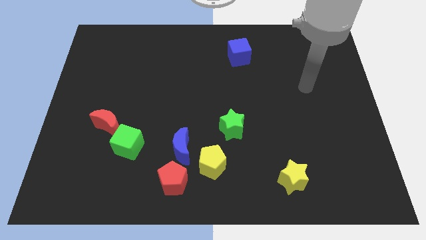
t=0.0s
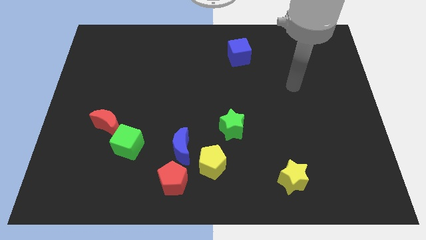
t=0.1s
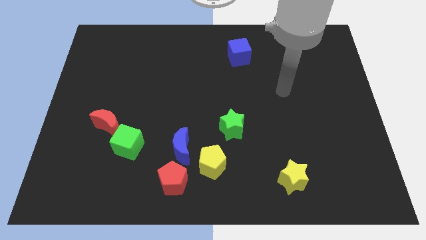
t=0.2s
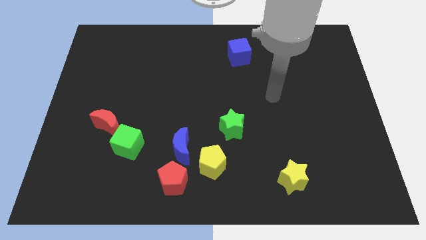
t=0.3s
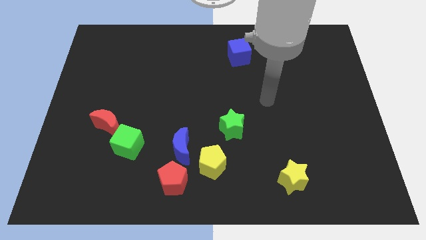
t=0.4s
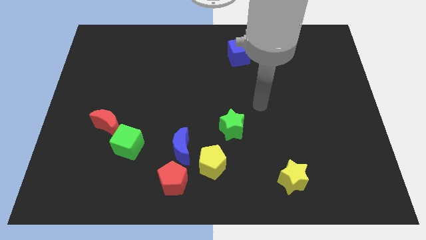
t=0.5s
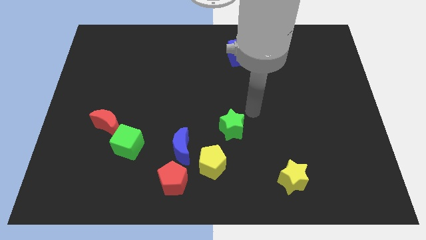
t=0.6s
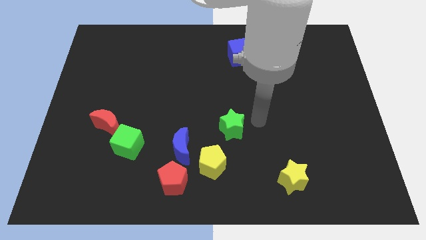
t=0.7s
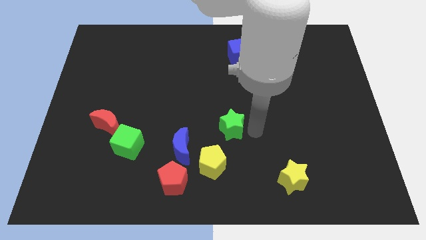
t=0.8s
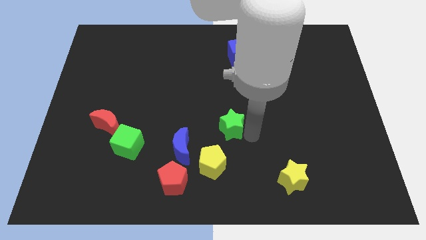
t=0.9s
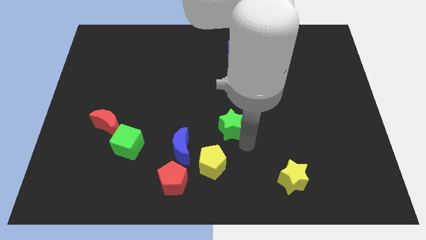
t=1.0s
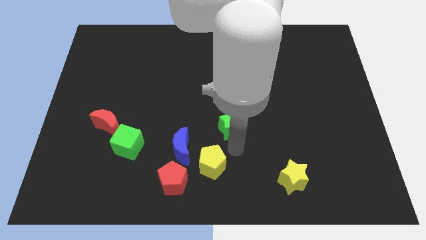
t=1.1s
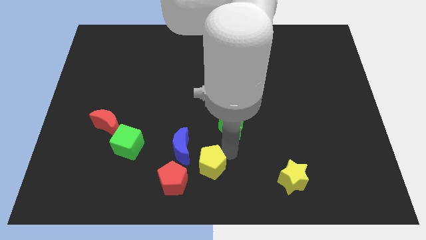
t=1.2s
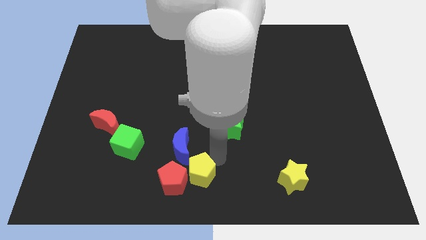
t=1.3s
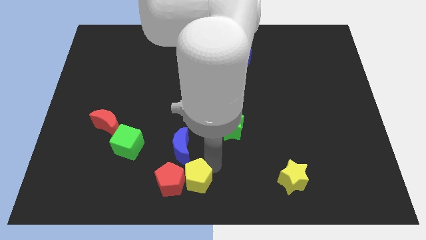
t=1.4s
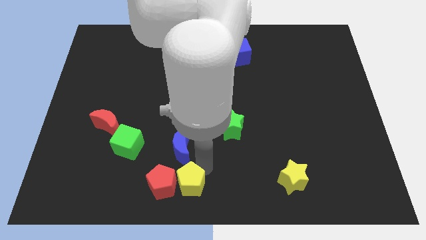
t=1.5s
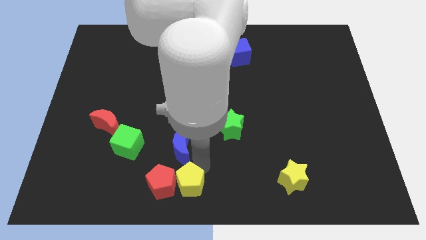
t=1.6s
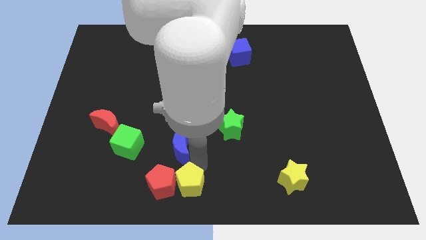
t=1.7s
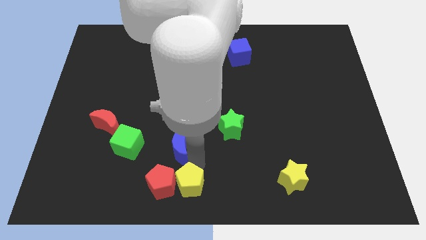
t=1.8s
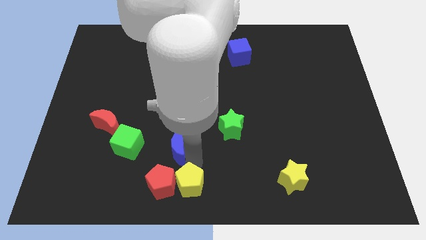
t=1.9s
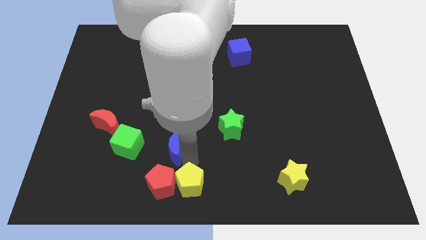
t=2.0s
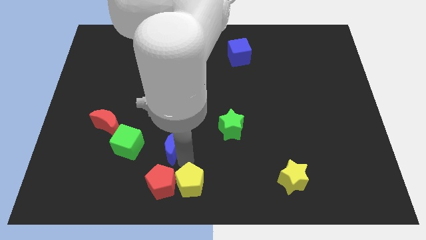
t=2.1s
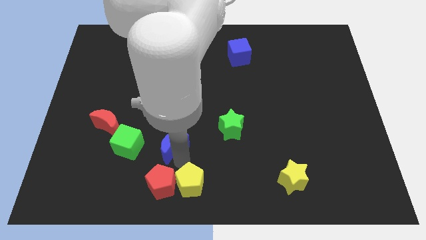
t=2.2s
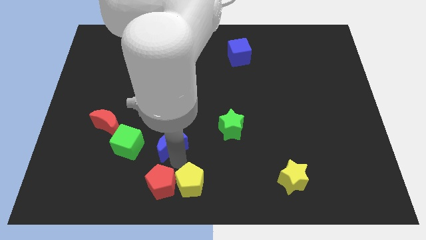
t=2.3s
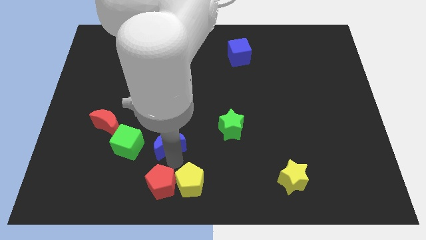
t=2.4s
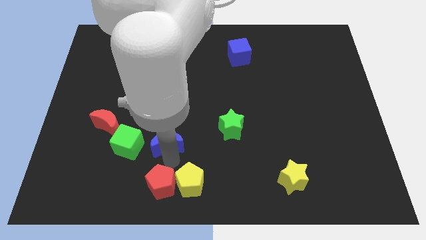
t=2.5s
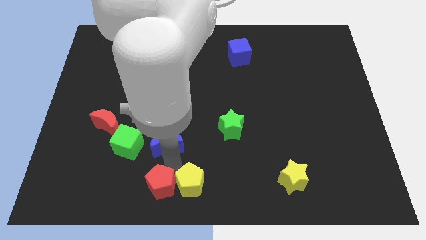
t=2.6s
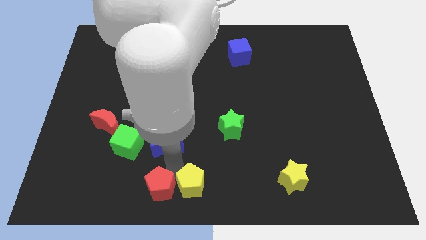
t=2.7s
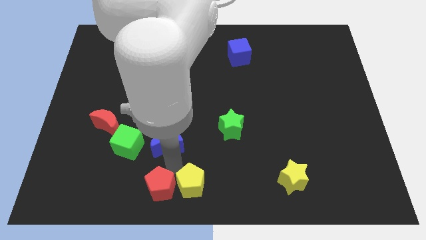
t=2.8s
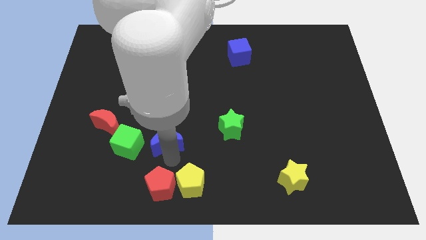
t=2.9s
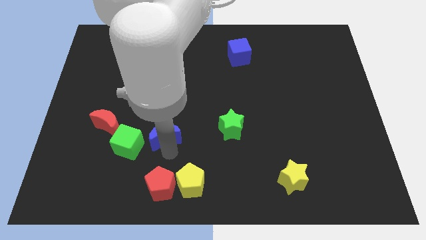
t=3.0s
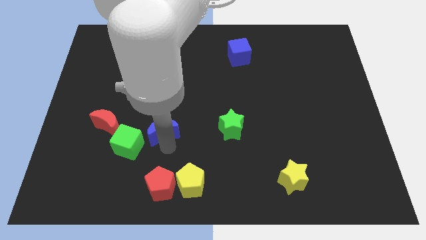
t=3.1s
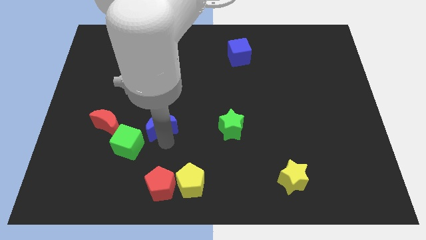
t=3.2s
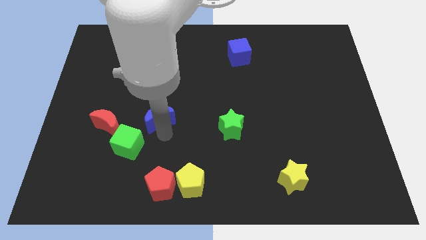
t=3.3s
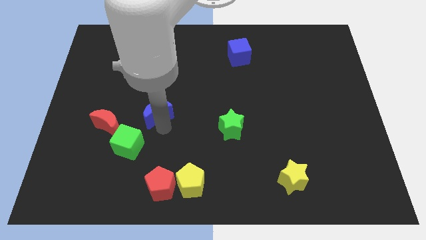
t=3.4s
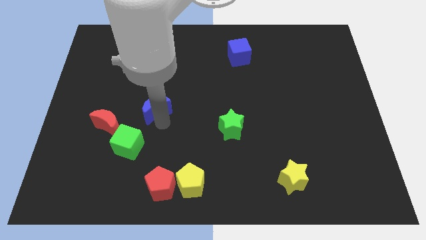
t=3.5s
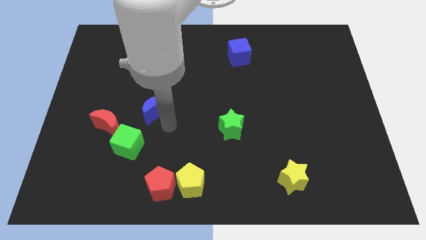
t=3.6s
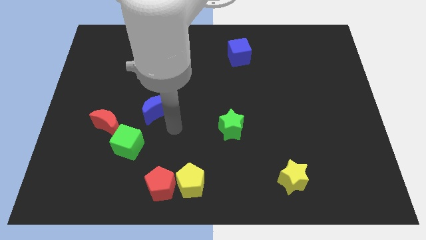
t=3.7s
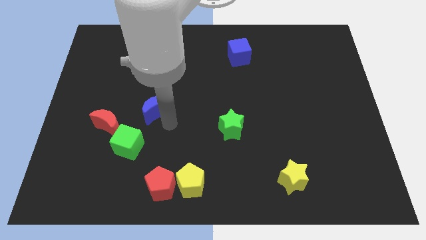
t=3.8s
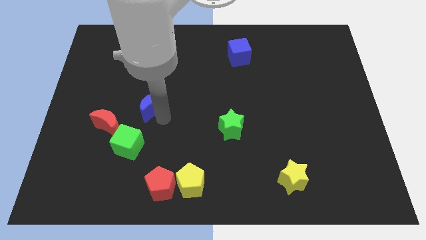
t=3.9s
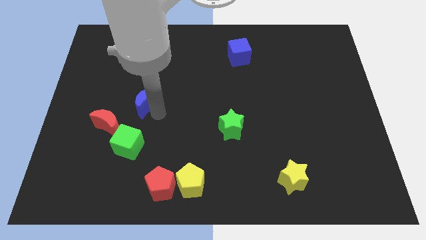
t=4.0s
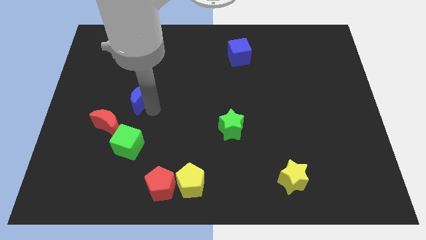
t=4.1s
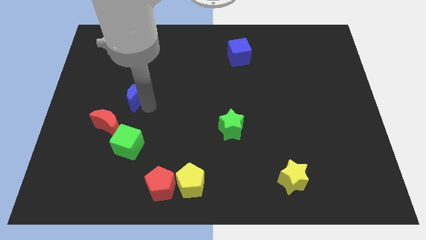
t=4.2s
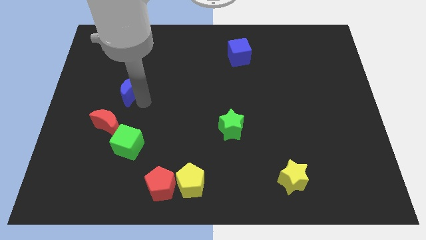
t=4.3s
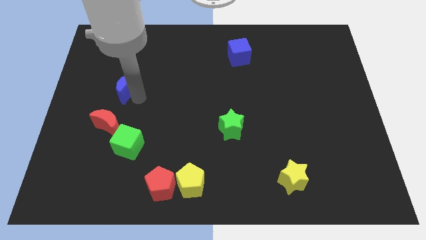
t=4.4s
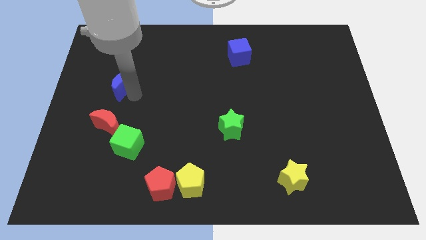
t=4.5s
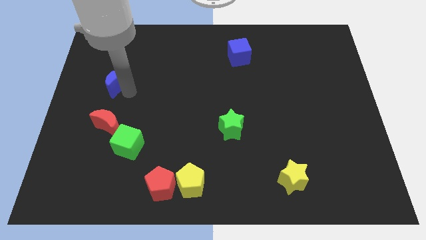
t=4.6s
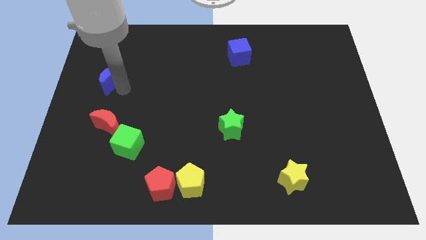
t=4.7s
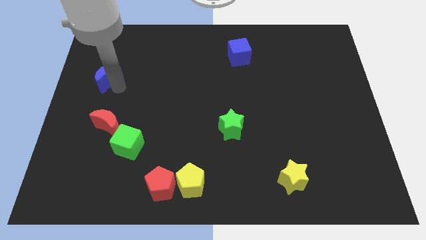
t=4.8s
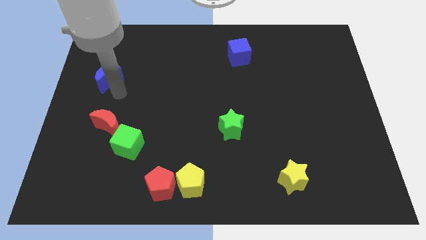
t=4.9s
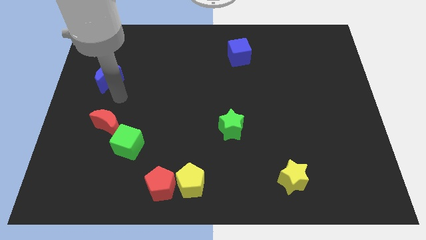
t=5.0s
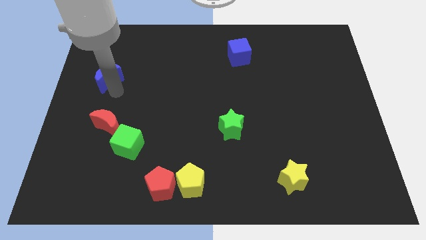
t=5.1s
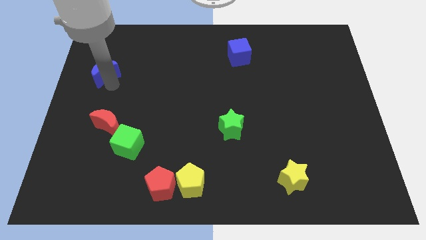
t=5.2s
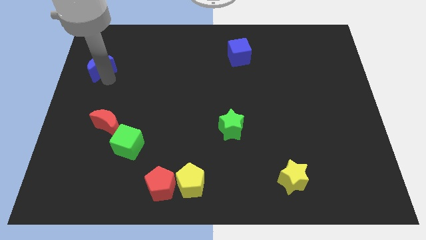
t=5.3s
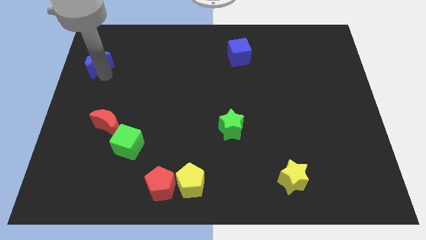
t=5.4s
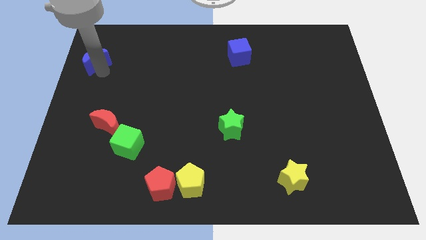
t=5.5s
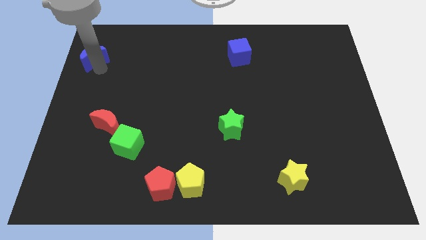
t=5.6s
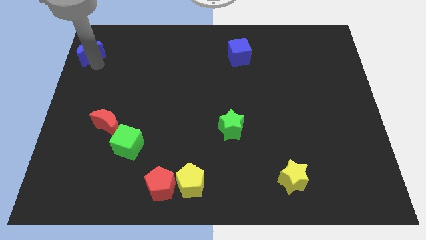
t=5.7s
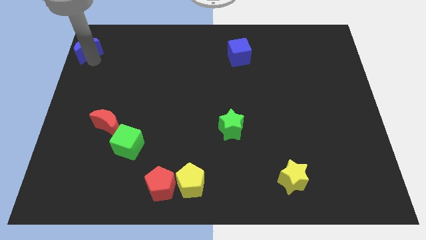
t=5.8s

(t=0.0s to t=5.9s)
put the blue moon to the upper left corner

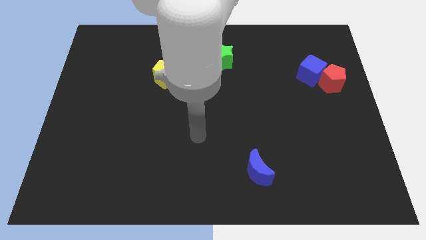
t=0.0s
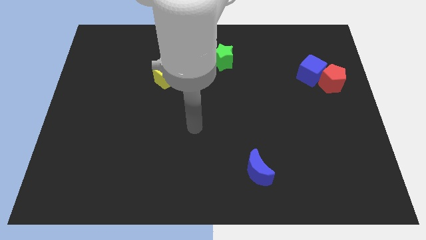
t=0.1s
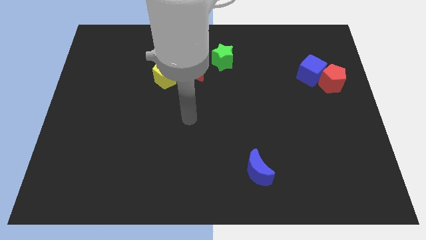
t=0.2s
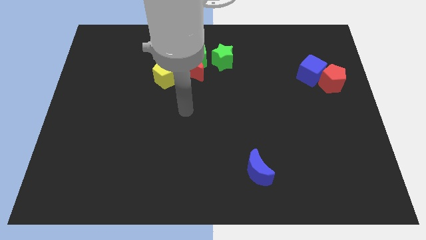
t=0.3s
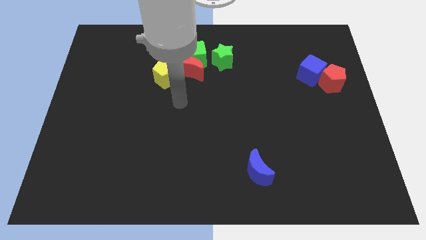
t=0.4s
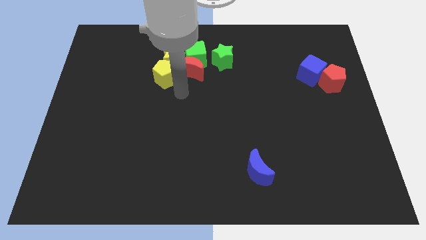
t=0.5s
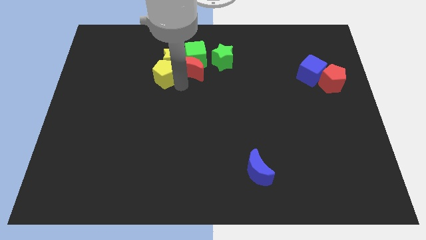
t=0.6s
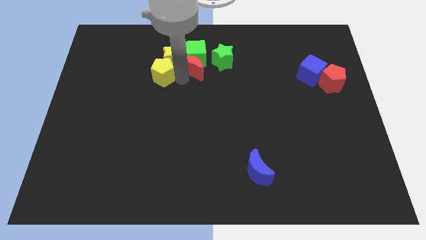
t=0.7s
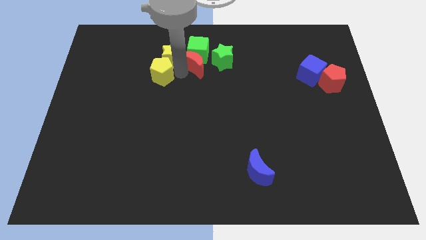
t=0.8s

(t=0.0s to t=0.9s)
put the green cube to the towards your base
